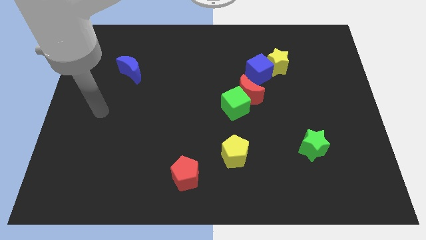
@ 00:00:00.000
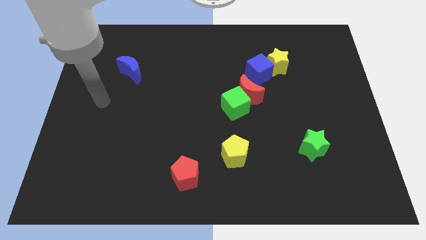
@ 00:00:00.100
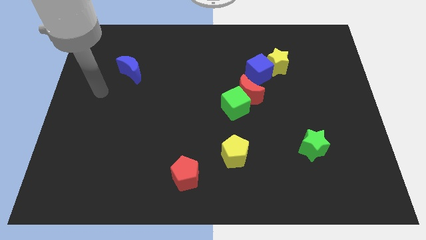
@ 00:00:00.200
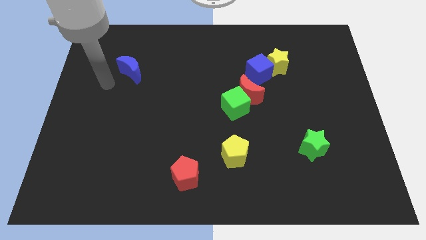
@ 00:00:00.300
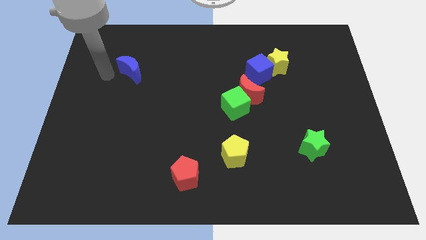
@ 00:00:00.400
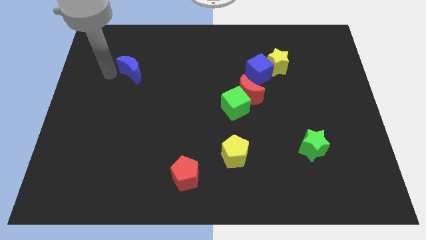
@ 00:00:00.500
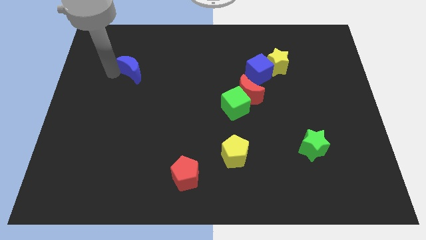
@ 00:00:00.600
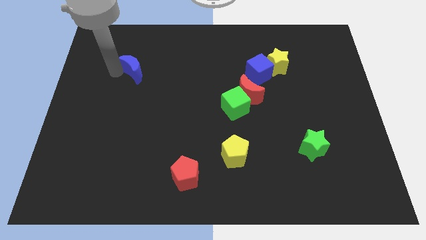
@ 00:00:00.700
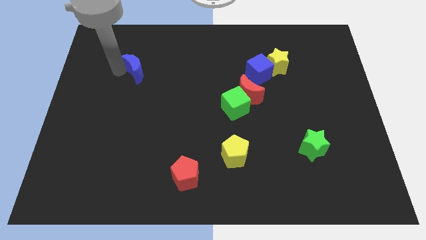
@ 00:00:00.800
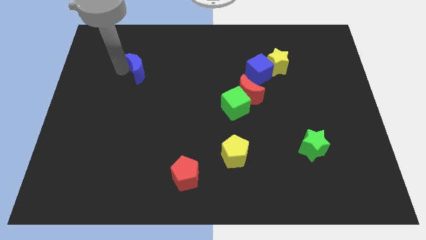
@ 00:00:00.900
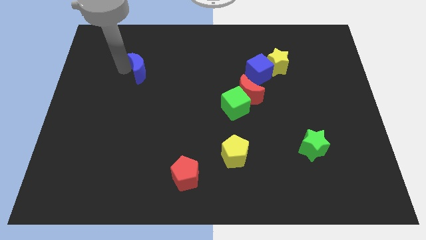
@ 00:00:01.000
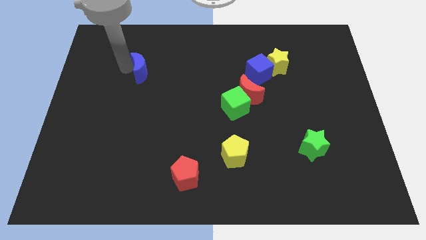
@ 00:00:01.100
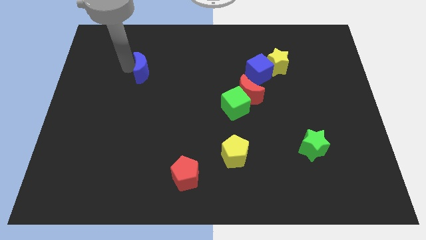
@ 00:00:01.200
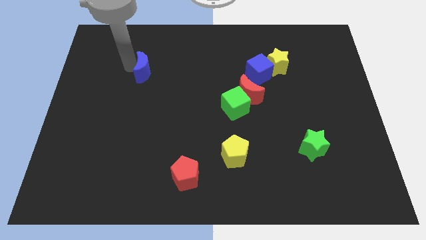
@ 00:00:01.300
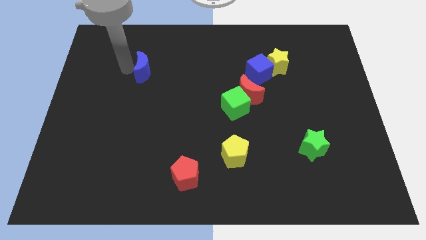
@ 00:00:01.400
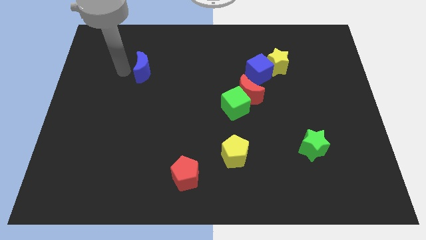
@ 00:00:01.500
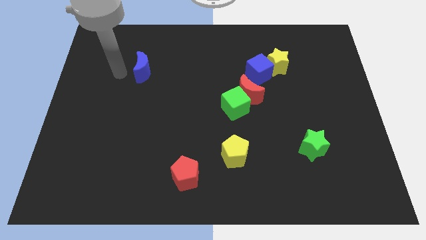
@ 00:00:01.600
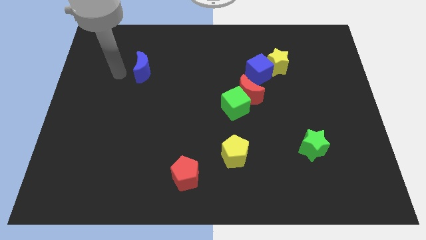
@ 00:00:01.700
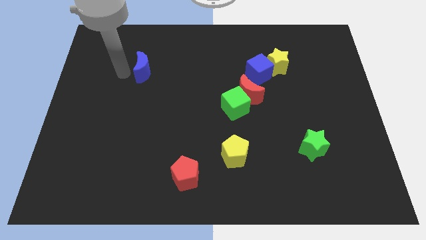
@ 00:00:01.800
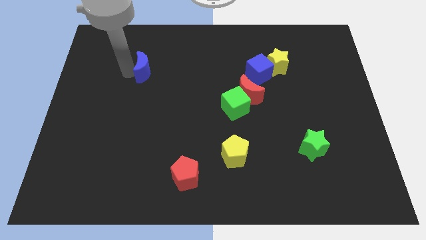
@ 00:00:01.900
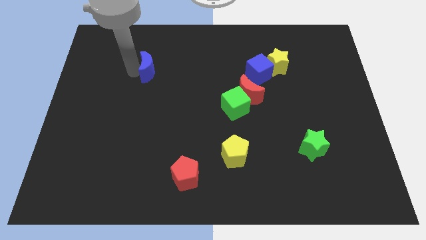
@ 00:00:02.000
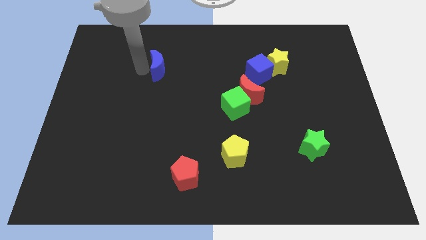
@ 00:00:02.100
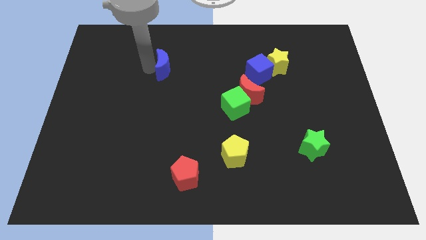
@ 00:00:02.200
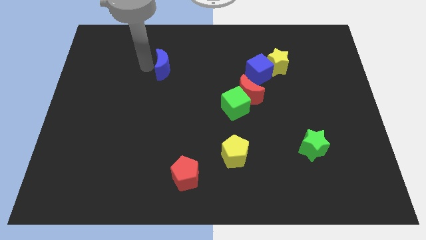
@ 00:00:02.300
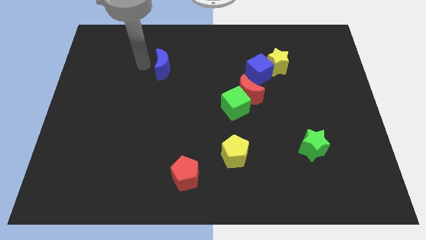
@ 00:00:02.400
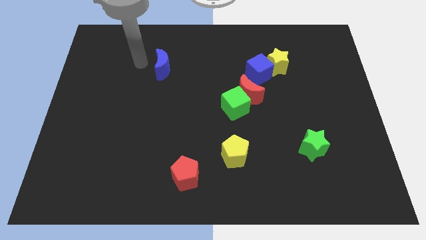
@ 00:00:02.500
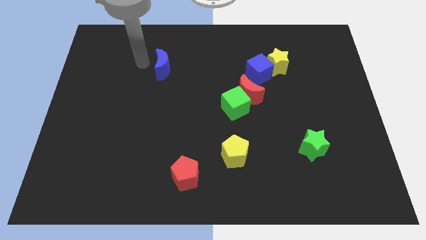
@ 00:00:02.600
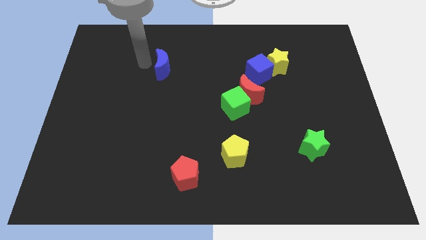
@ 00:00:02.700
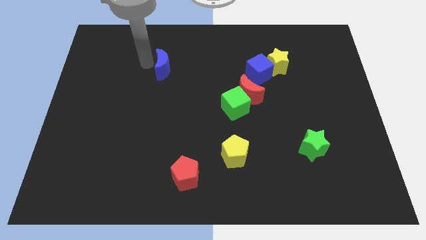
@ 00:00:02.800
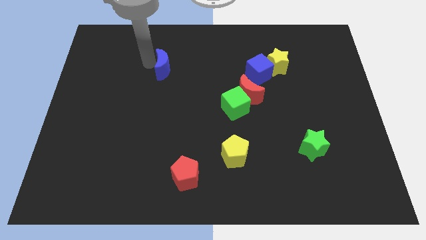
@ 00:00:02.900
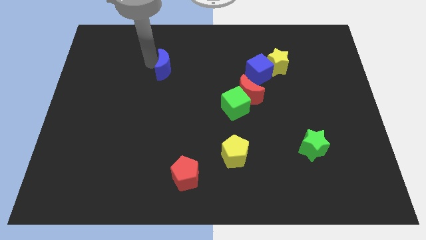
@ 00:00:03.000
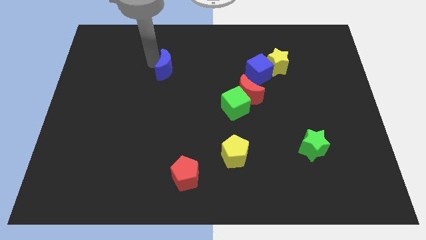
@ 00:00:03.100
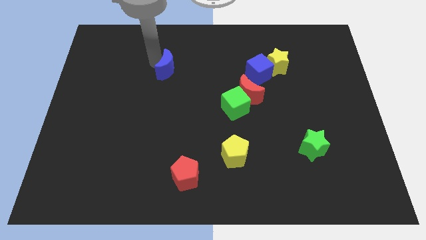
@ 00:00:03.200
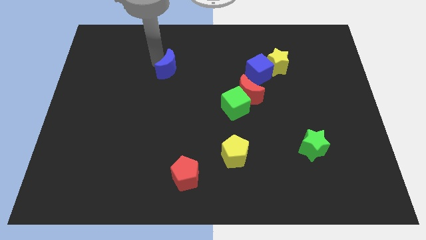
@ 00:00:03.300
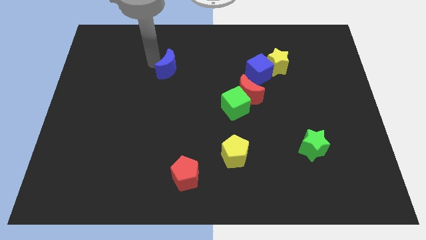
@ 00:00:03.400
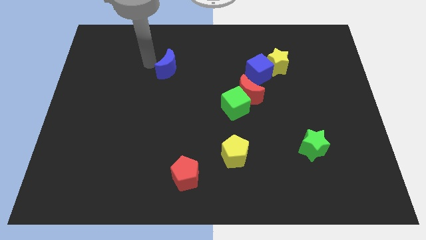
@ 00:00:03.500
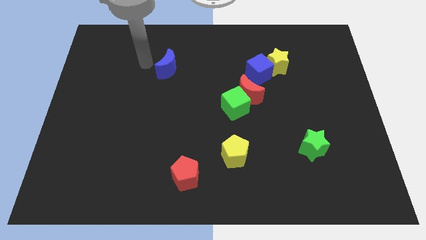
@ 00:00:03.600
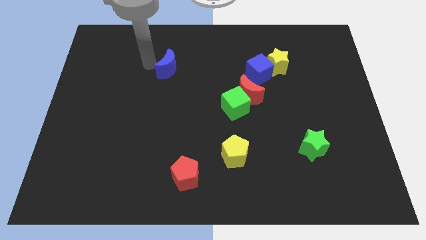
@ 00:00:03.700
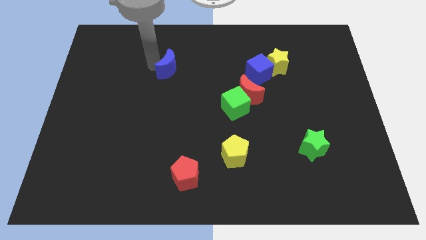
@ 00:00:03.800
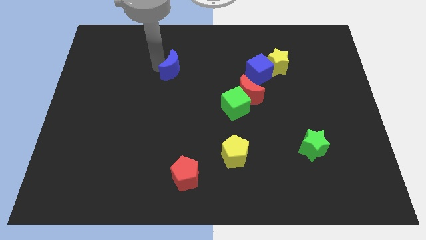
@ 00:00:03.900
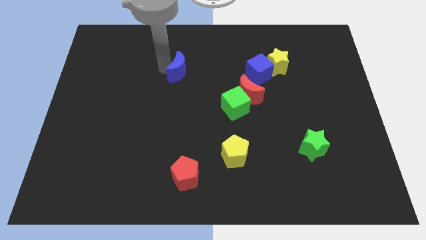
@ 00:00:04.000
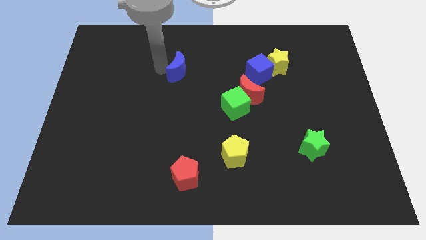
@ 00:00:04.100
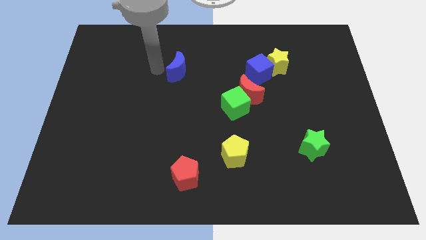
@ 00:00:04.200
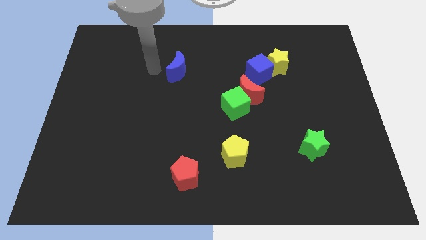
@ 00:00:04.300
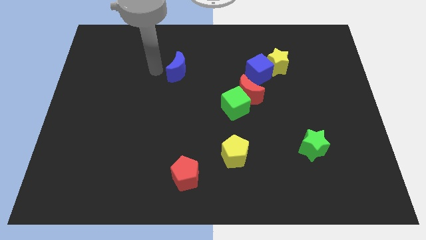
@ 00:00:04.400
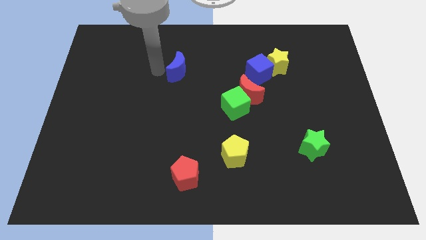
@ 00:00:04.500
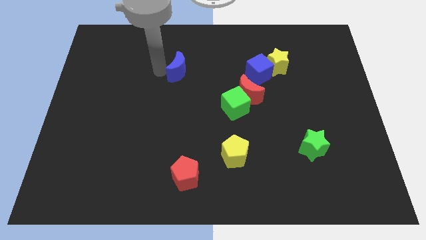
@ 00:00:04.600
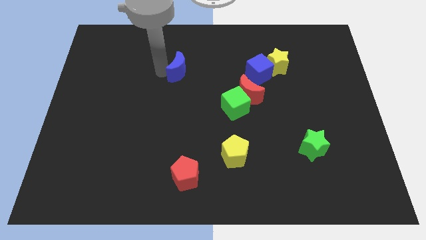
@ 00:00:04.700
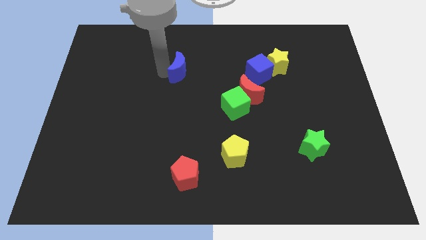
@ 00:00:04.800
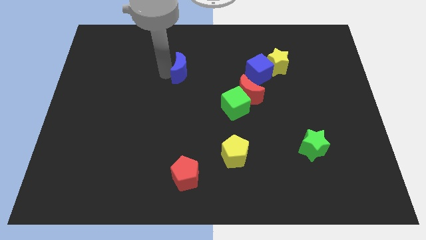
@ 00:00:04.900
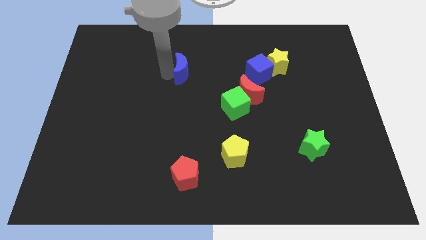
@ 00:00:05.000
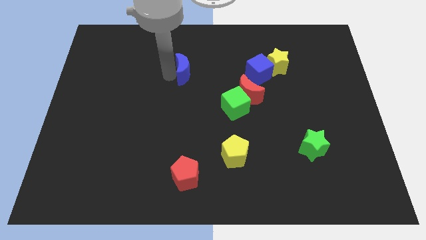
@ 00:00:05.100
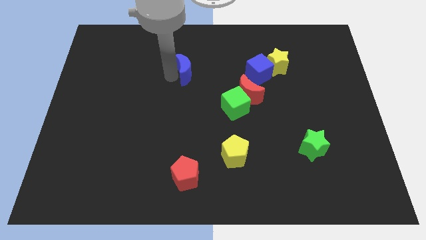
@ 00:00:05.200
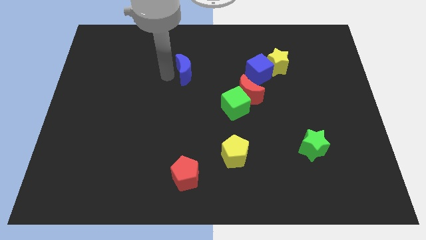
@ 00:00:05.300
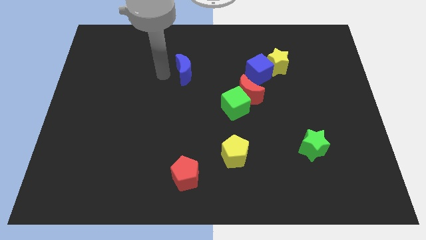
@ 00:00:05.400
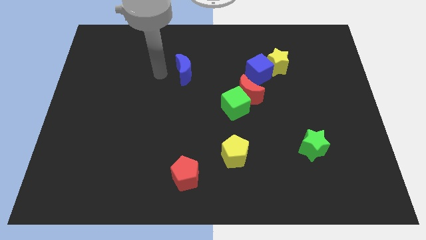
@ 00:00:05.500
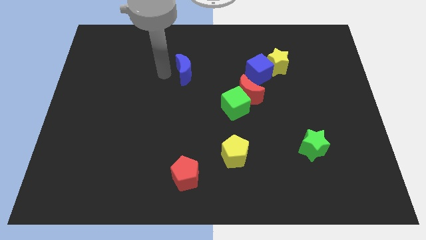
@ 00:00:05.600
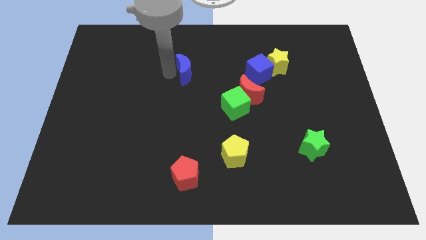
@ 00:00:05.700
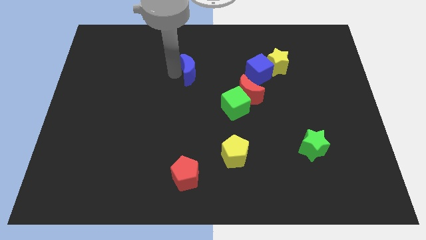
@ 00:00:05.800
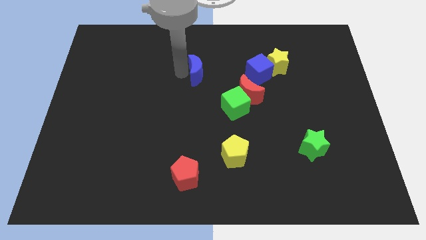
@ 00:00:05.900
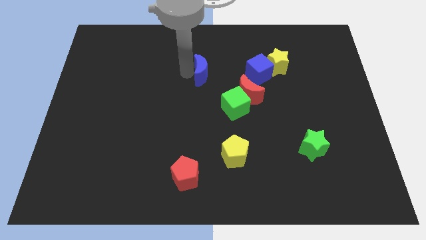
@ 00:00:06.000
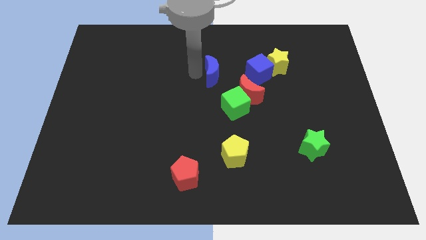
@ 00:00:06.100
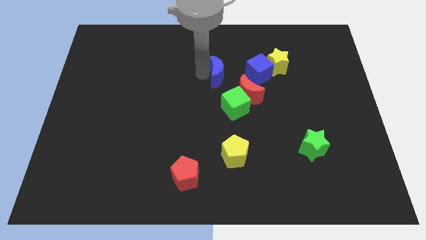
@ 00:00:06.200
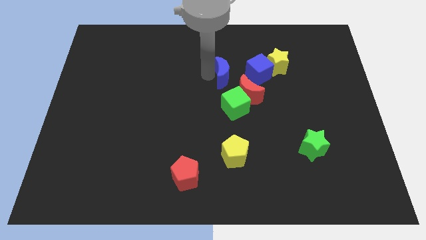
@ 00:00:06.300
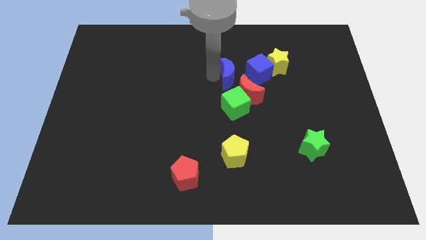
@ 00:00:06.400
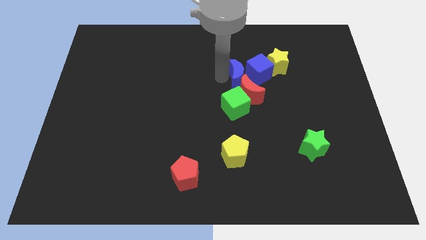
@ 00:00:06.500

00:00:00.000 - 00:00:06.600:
slide the blue moon to the blue cube

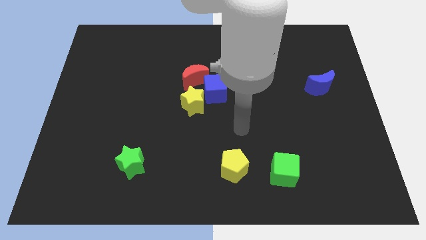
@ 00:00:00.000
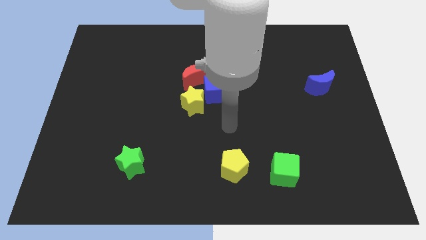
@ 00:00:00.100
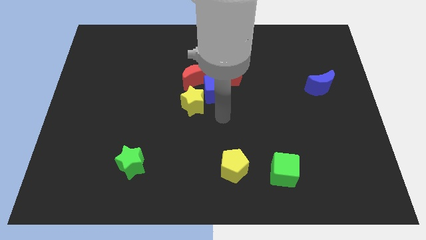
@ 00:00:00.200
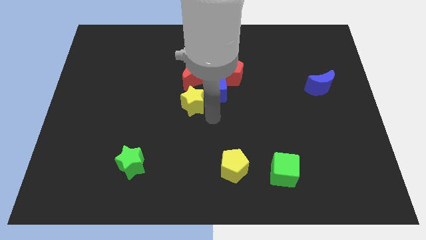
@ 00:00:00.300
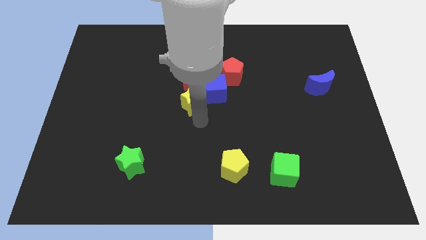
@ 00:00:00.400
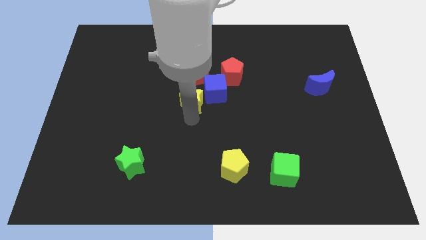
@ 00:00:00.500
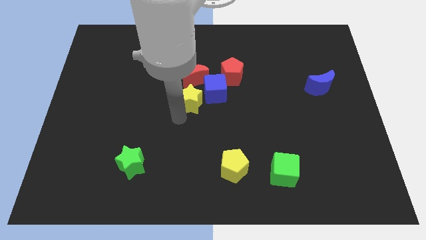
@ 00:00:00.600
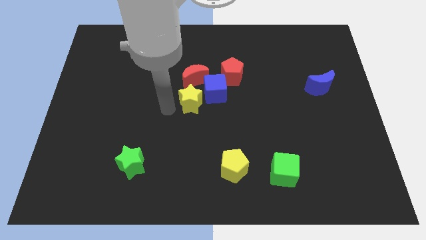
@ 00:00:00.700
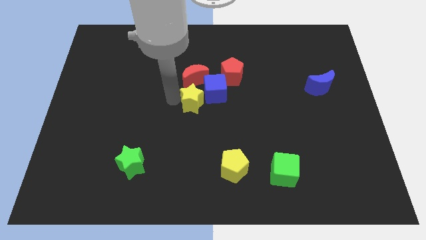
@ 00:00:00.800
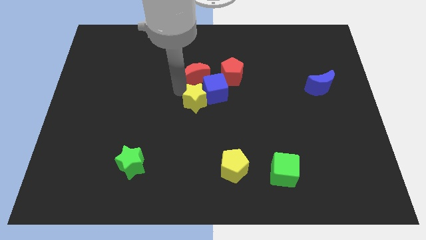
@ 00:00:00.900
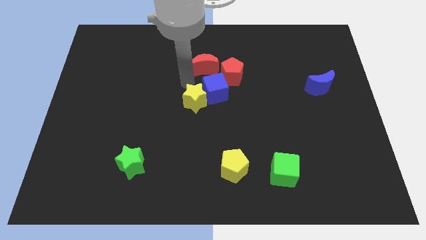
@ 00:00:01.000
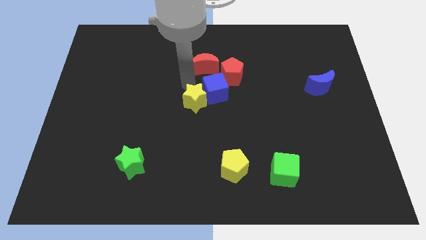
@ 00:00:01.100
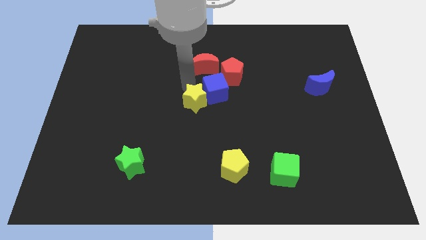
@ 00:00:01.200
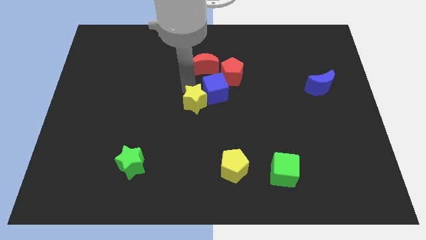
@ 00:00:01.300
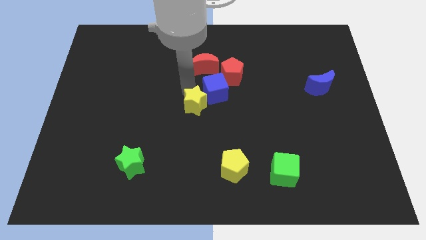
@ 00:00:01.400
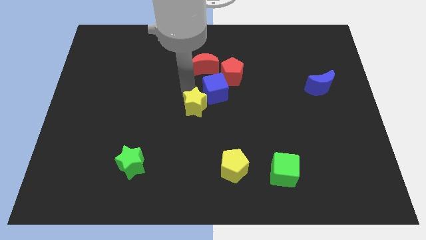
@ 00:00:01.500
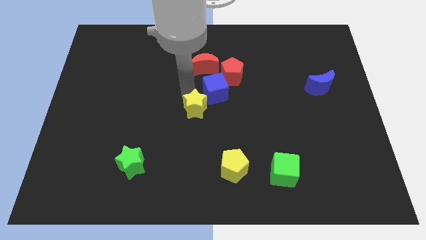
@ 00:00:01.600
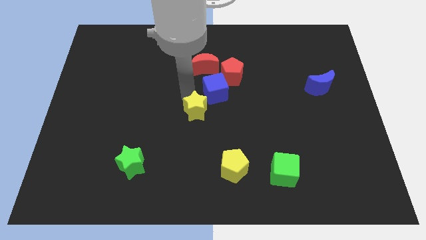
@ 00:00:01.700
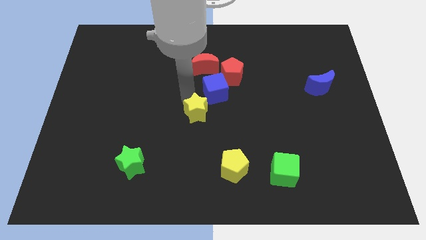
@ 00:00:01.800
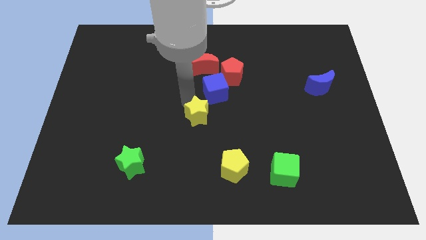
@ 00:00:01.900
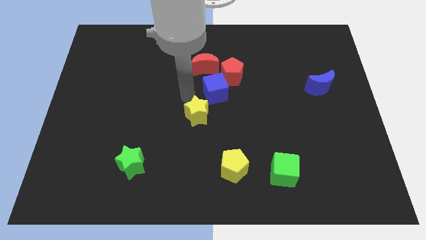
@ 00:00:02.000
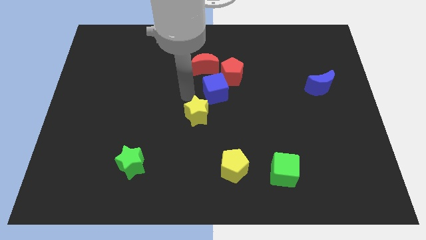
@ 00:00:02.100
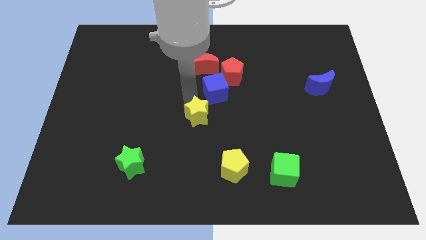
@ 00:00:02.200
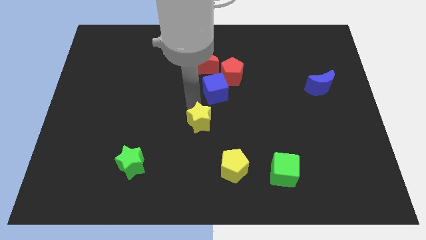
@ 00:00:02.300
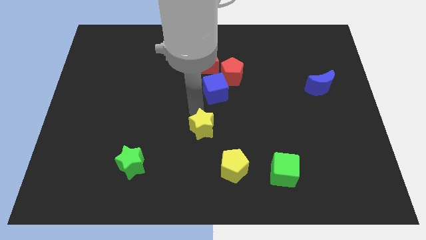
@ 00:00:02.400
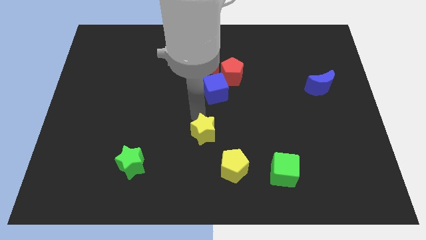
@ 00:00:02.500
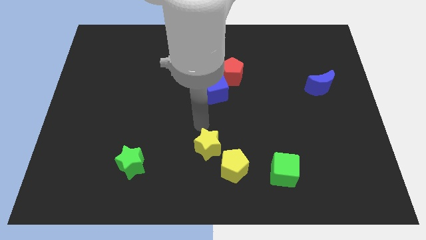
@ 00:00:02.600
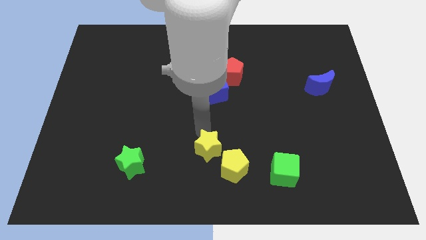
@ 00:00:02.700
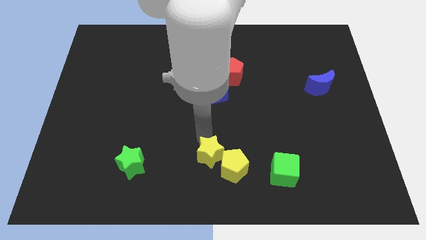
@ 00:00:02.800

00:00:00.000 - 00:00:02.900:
slide the yellow star next to the yellow pentagon
